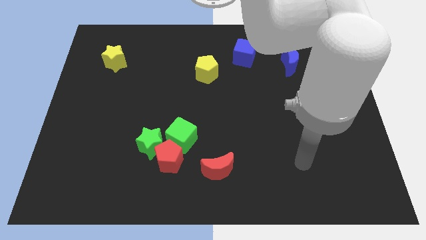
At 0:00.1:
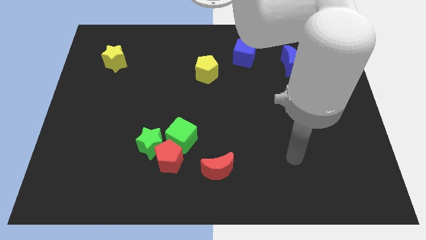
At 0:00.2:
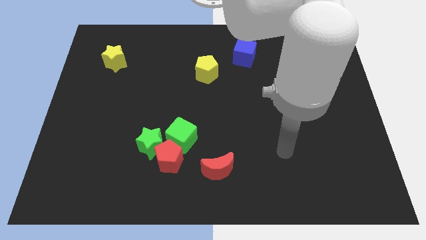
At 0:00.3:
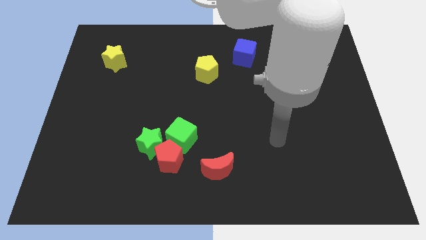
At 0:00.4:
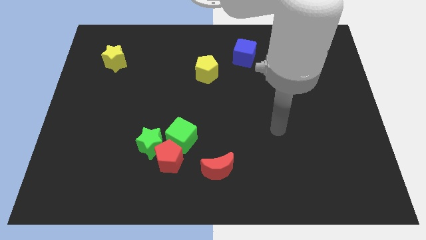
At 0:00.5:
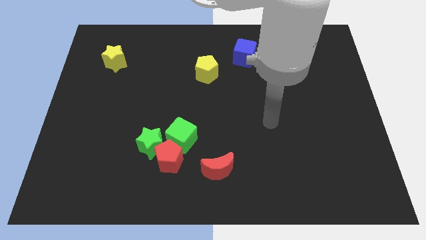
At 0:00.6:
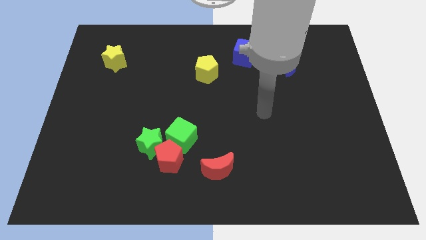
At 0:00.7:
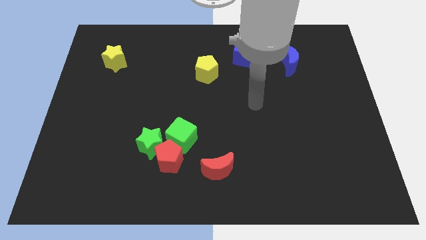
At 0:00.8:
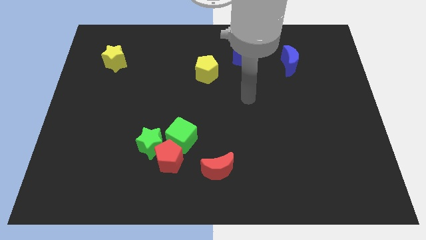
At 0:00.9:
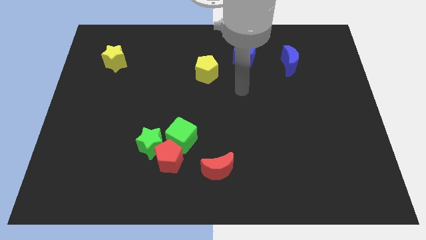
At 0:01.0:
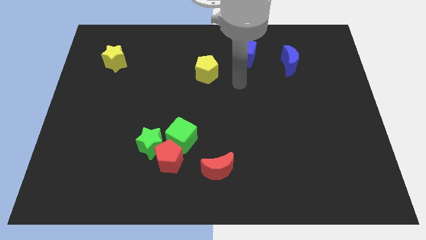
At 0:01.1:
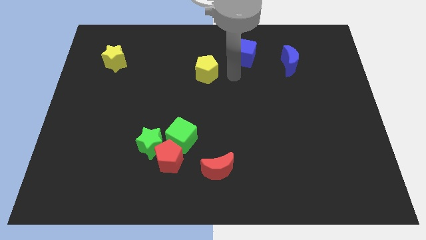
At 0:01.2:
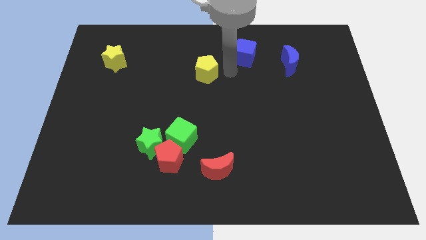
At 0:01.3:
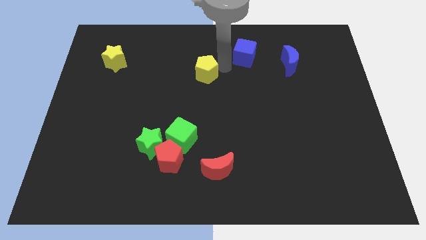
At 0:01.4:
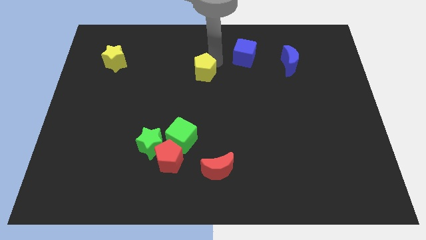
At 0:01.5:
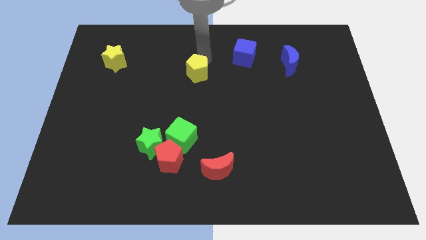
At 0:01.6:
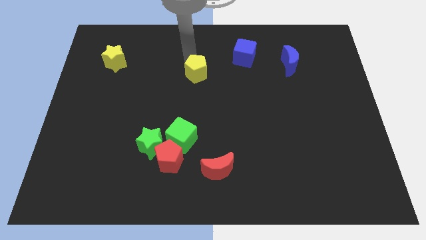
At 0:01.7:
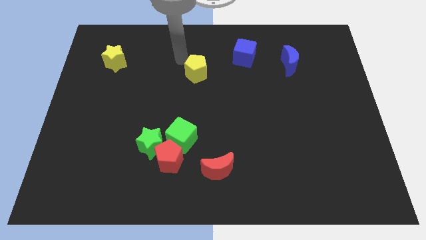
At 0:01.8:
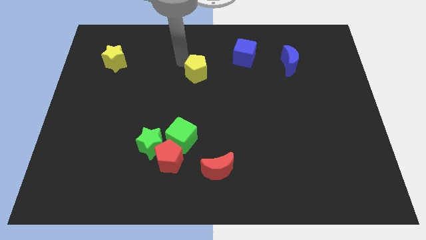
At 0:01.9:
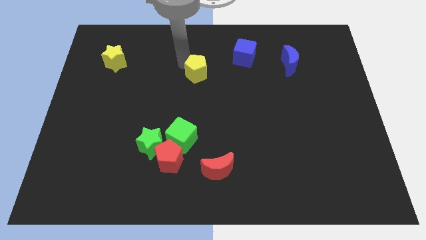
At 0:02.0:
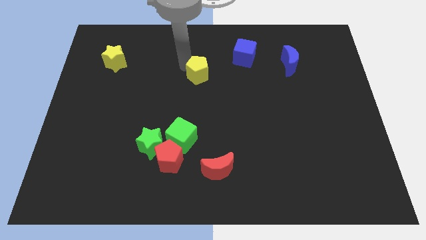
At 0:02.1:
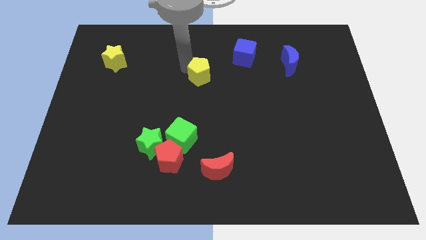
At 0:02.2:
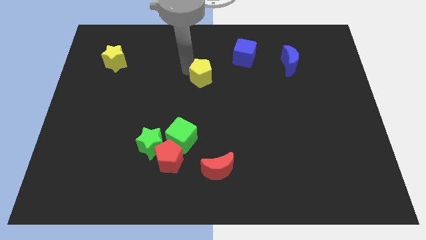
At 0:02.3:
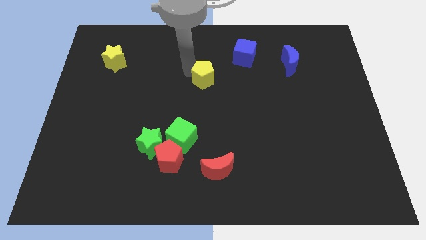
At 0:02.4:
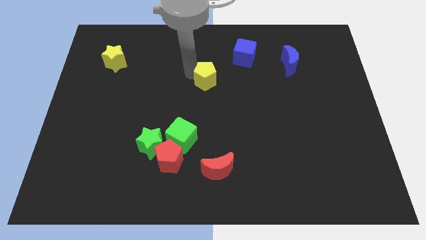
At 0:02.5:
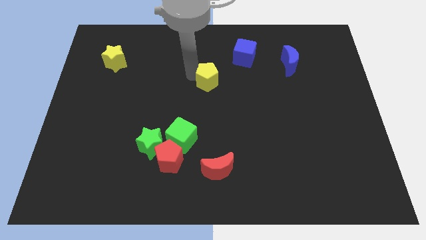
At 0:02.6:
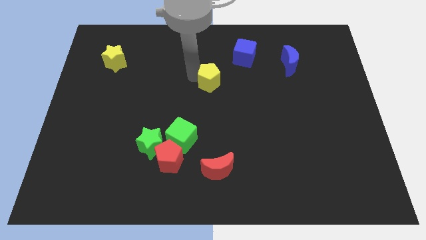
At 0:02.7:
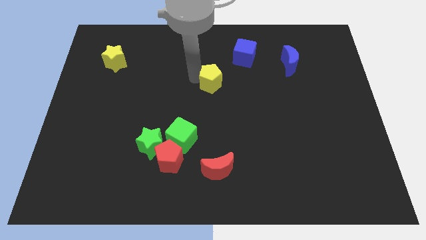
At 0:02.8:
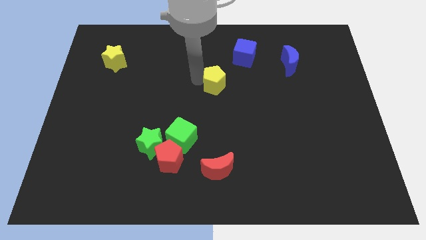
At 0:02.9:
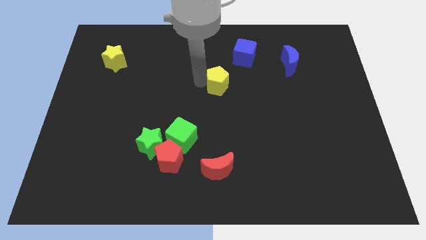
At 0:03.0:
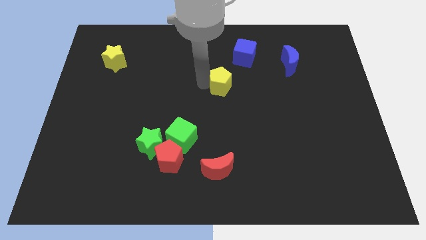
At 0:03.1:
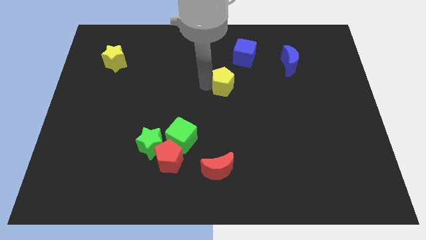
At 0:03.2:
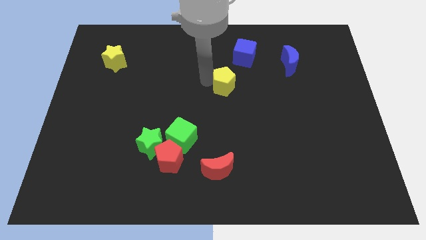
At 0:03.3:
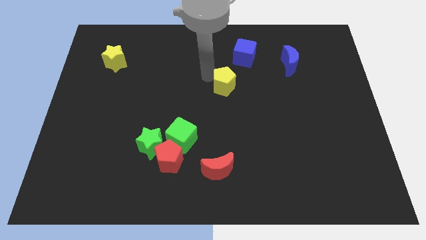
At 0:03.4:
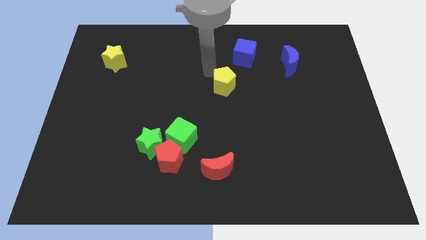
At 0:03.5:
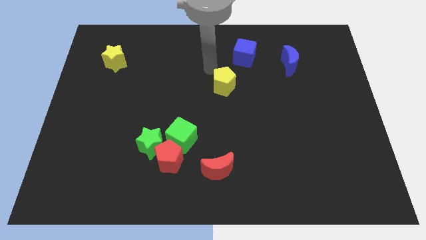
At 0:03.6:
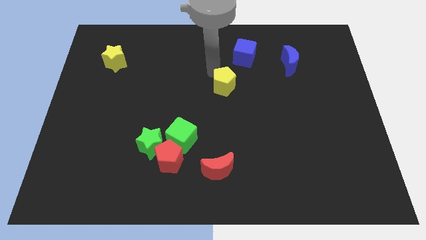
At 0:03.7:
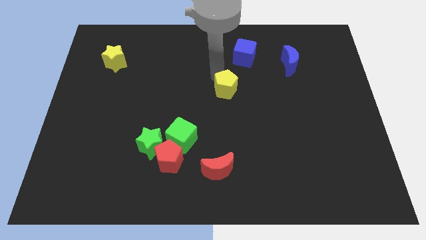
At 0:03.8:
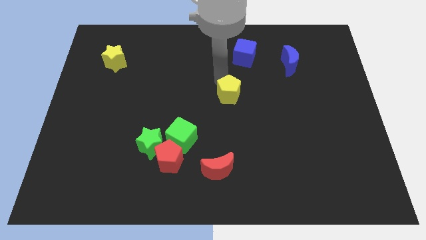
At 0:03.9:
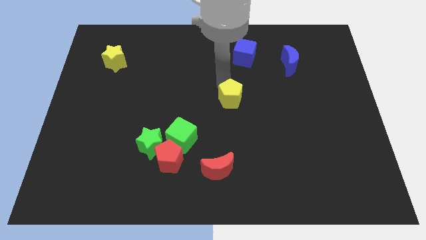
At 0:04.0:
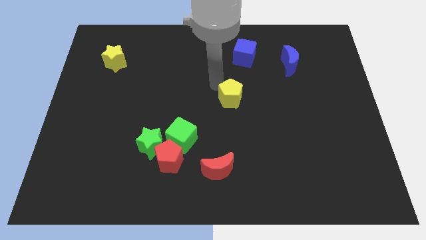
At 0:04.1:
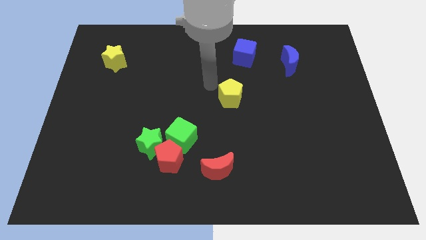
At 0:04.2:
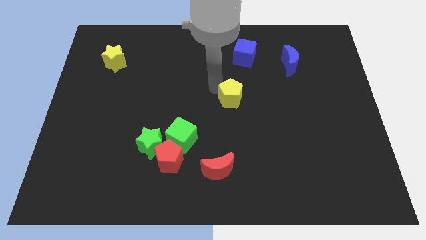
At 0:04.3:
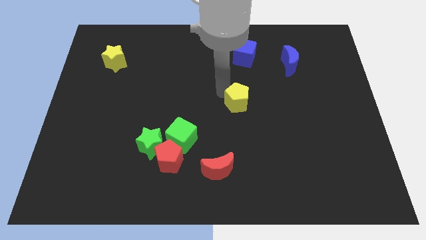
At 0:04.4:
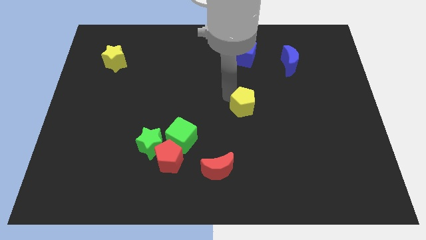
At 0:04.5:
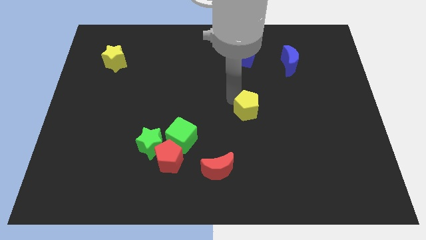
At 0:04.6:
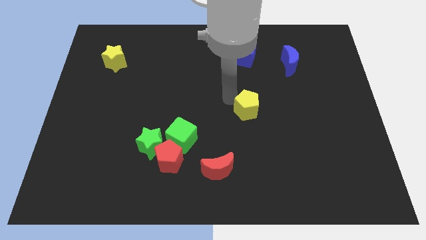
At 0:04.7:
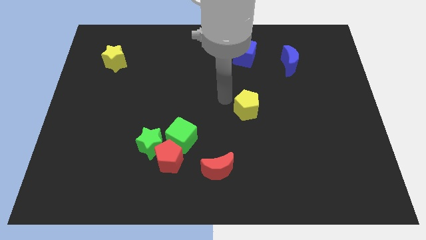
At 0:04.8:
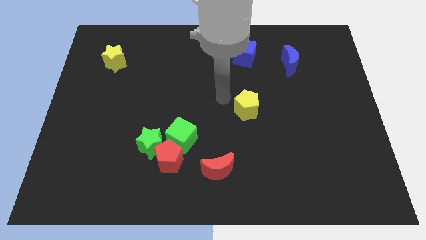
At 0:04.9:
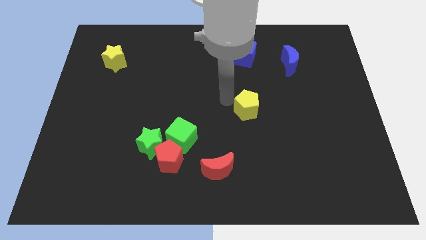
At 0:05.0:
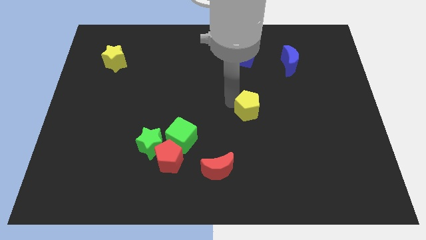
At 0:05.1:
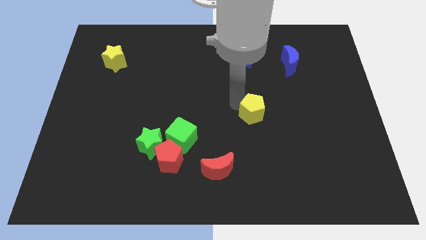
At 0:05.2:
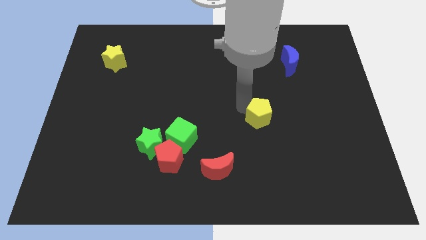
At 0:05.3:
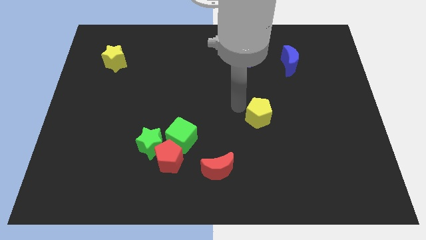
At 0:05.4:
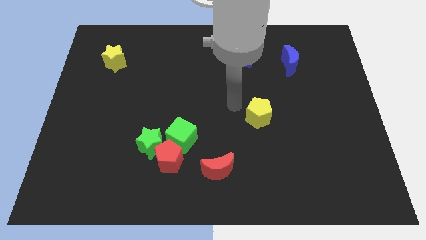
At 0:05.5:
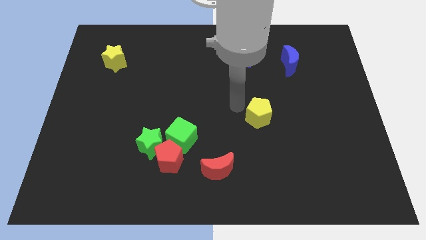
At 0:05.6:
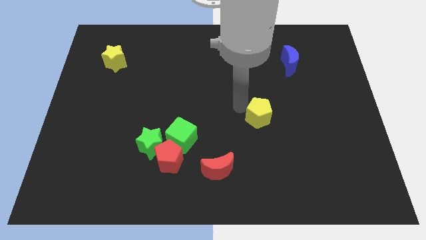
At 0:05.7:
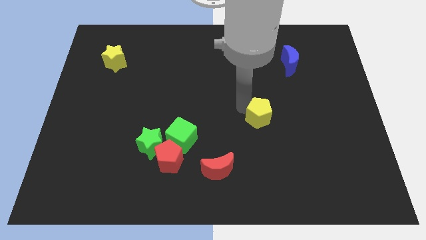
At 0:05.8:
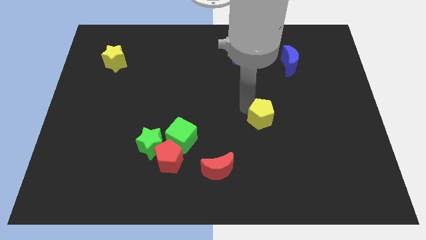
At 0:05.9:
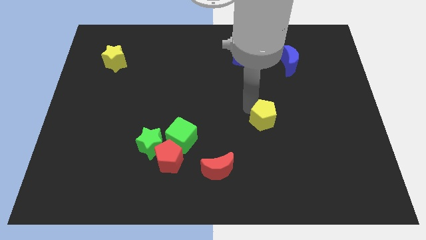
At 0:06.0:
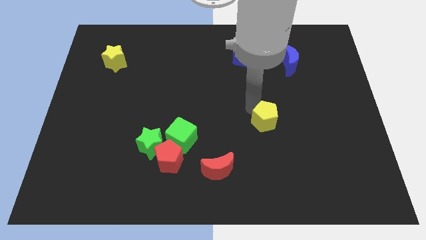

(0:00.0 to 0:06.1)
push the yellow pentagon down and to the right diagonally

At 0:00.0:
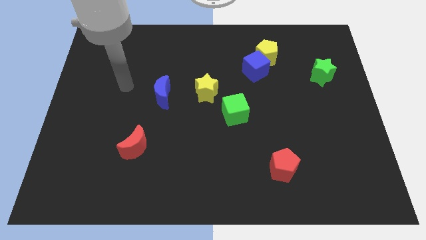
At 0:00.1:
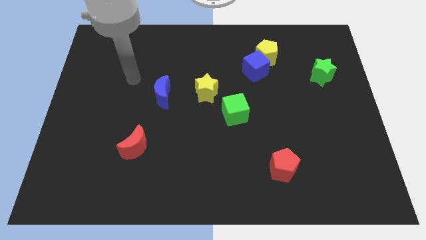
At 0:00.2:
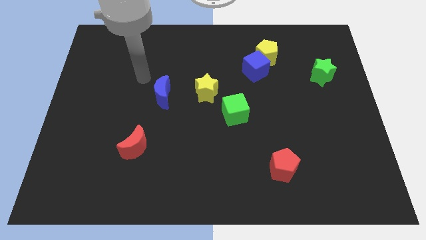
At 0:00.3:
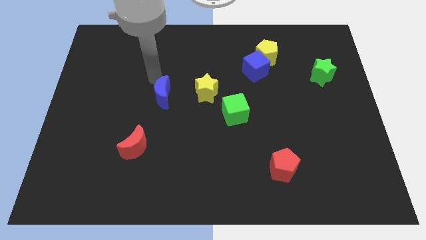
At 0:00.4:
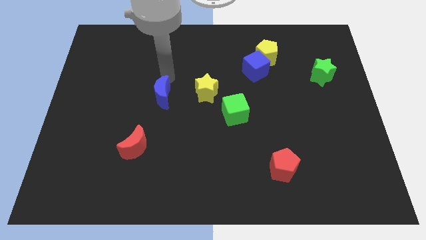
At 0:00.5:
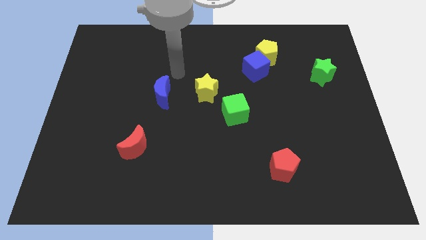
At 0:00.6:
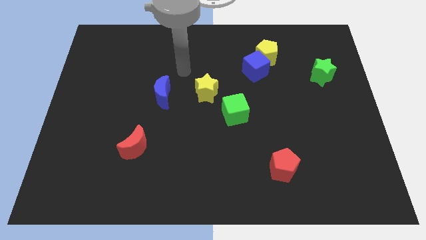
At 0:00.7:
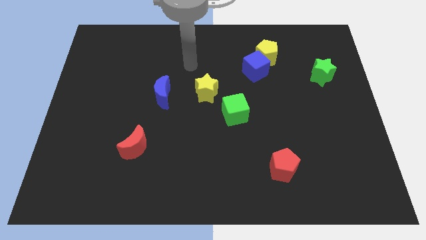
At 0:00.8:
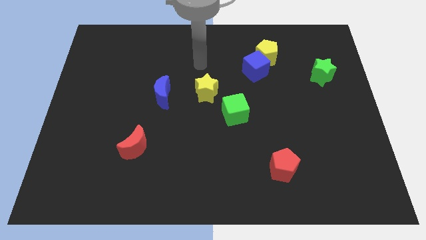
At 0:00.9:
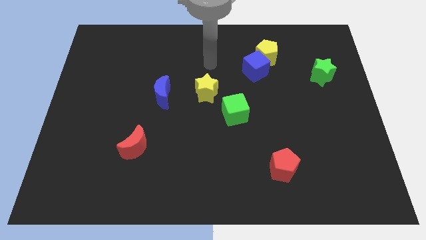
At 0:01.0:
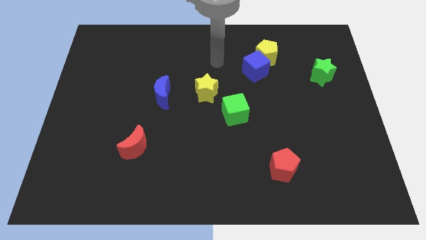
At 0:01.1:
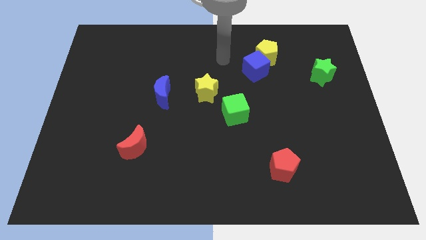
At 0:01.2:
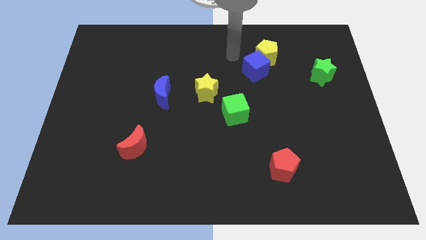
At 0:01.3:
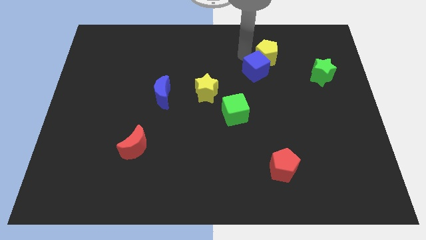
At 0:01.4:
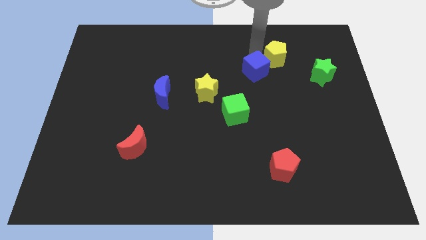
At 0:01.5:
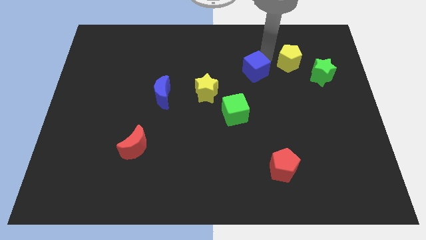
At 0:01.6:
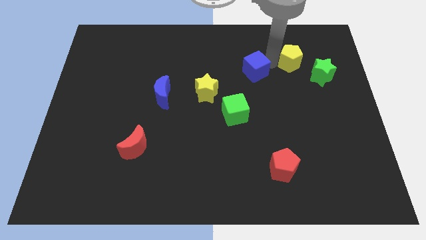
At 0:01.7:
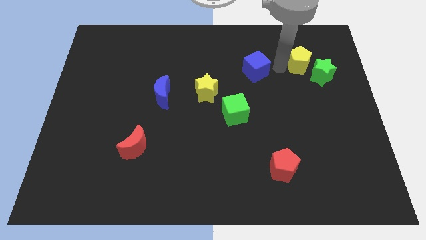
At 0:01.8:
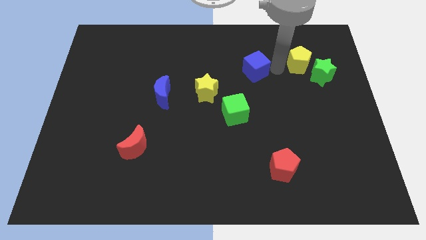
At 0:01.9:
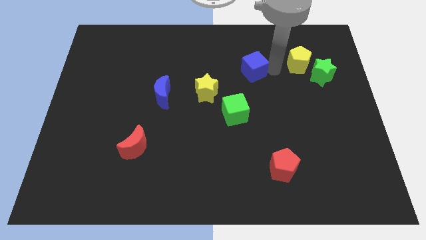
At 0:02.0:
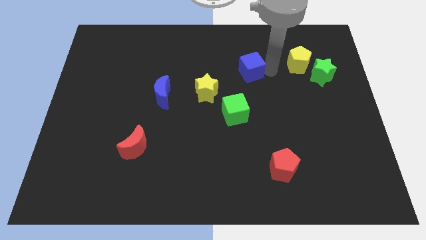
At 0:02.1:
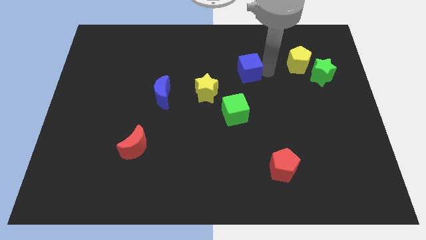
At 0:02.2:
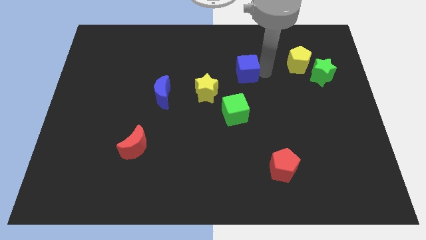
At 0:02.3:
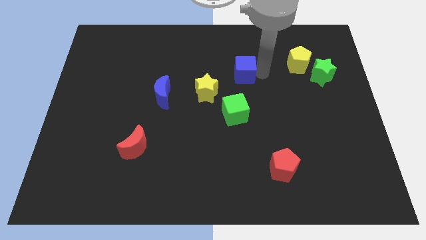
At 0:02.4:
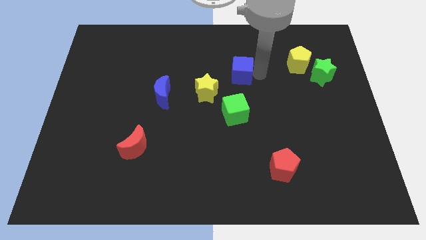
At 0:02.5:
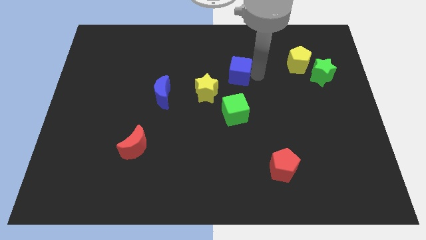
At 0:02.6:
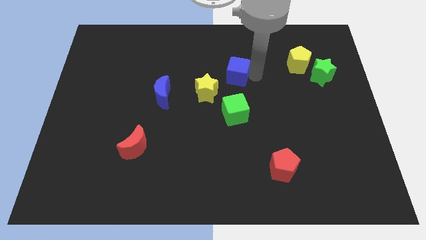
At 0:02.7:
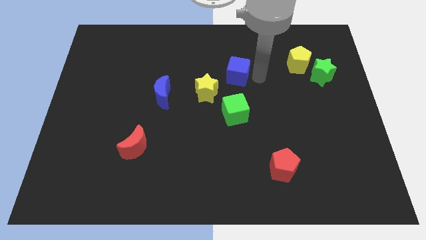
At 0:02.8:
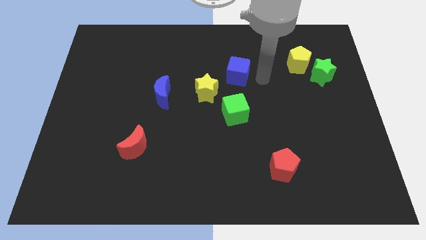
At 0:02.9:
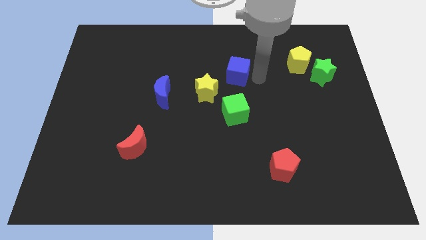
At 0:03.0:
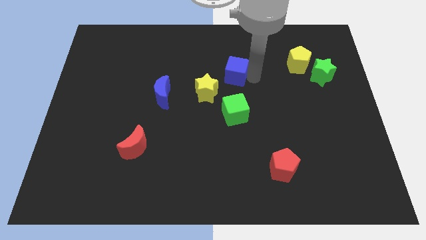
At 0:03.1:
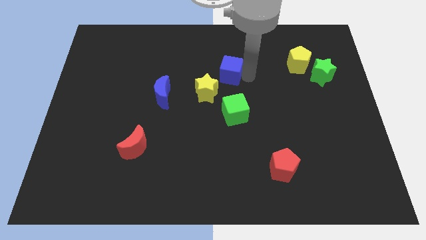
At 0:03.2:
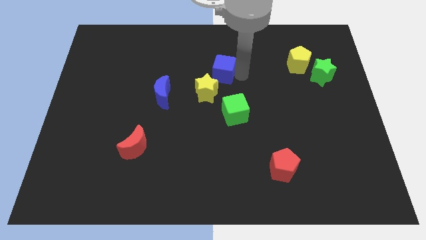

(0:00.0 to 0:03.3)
move the blue cube a little to the left
